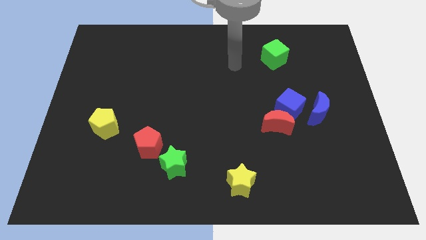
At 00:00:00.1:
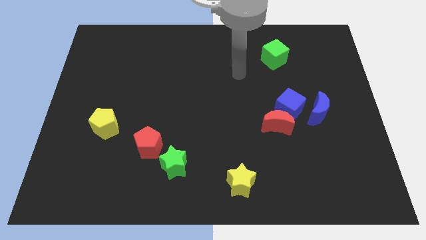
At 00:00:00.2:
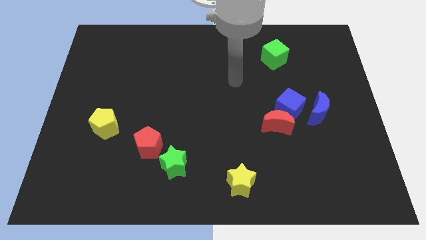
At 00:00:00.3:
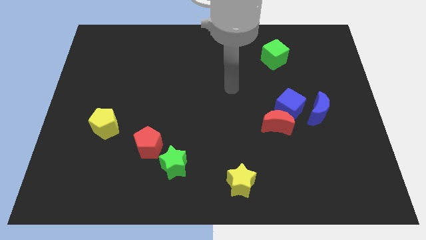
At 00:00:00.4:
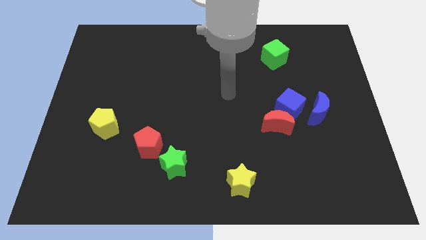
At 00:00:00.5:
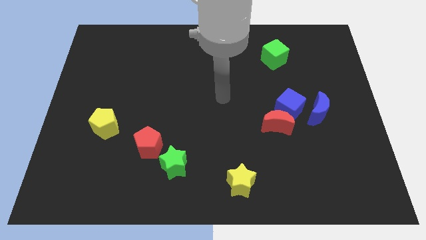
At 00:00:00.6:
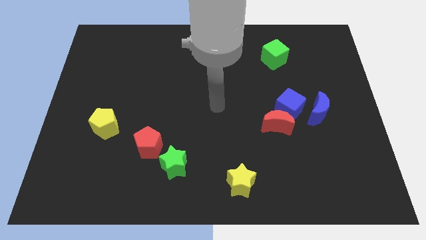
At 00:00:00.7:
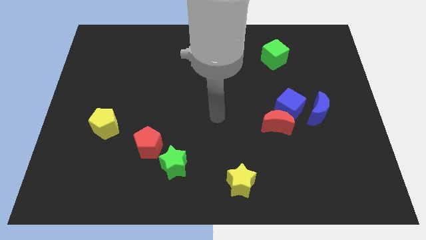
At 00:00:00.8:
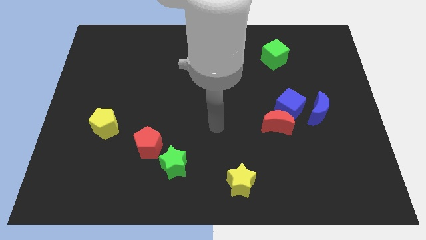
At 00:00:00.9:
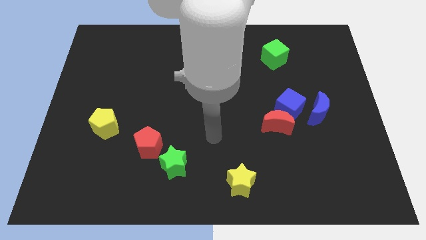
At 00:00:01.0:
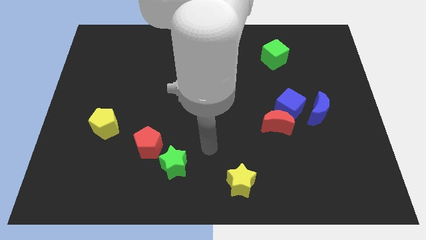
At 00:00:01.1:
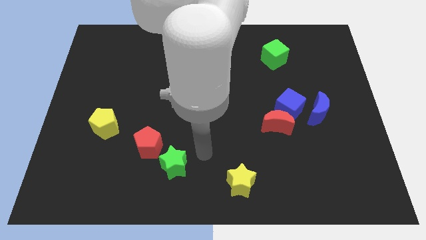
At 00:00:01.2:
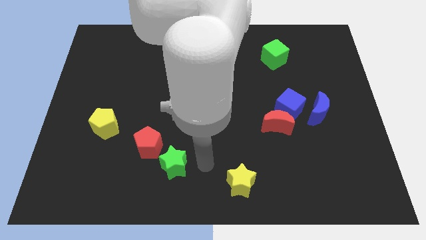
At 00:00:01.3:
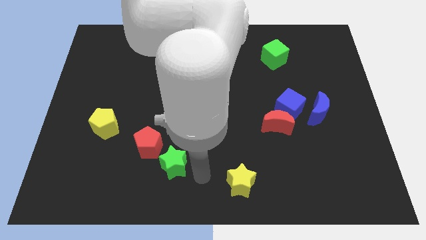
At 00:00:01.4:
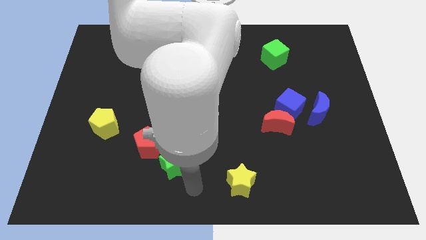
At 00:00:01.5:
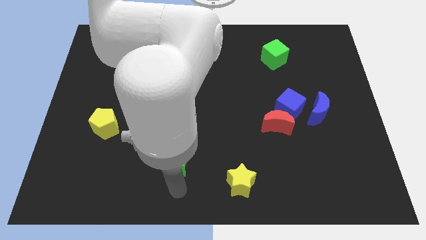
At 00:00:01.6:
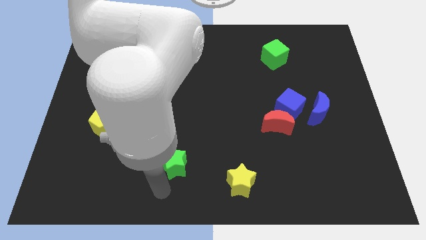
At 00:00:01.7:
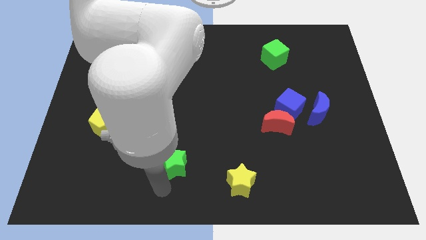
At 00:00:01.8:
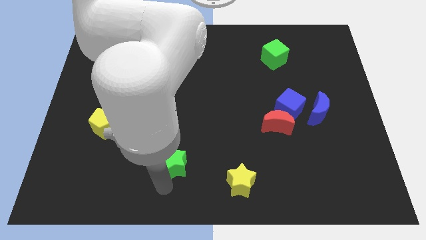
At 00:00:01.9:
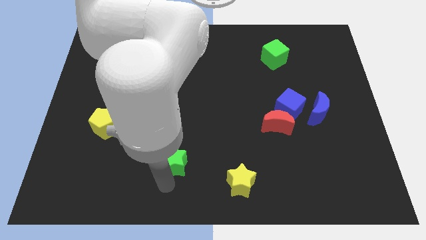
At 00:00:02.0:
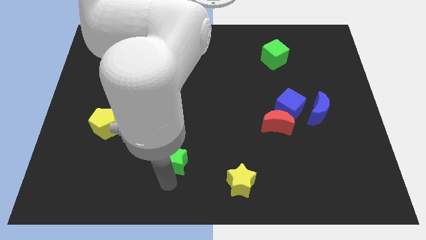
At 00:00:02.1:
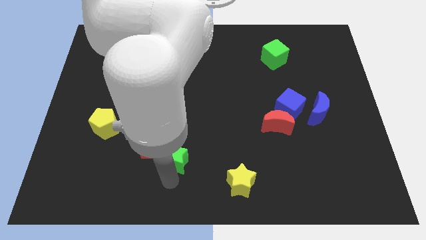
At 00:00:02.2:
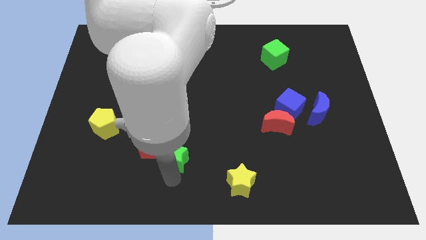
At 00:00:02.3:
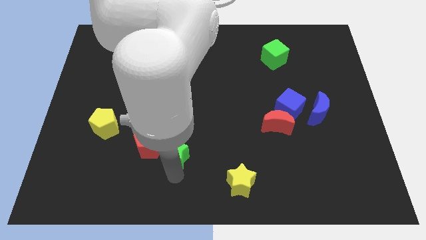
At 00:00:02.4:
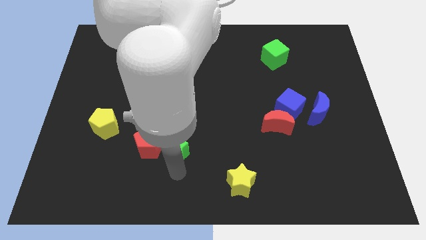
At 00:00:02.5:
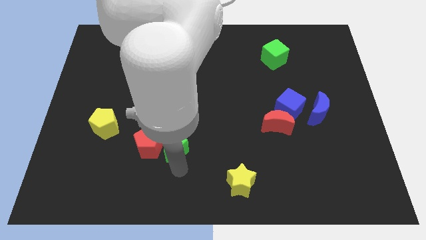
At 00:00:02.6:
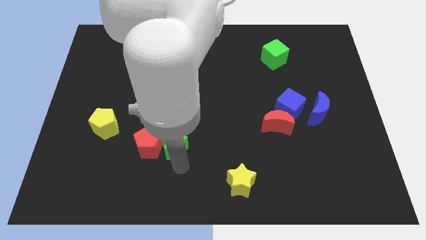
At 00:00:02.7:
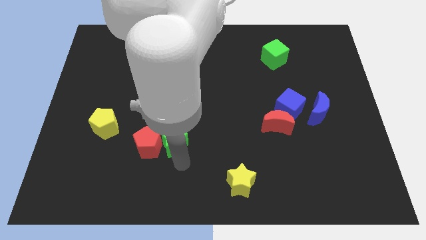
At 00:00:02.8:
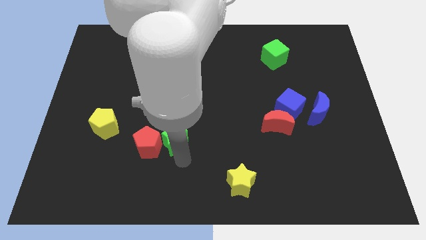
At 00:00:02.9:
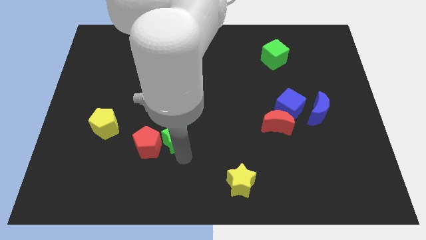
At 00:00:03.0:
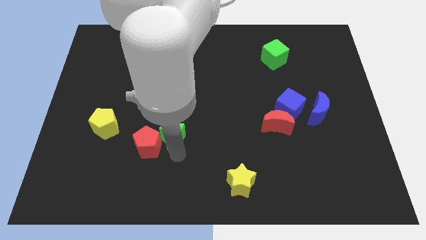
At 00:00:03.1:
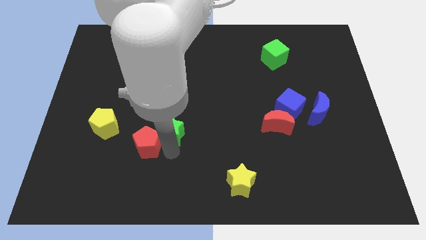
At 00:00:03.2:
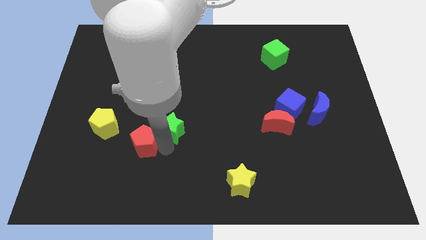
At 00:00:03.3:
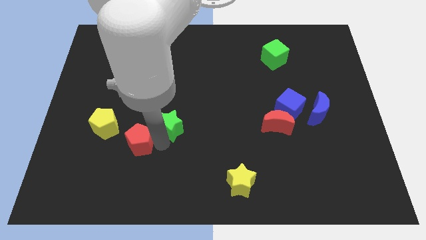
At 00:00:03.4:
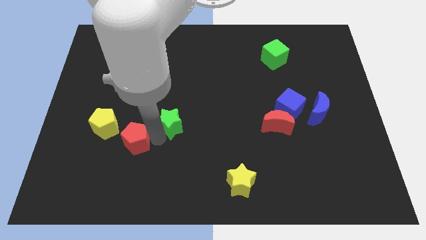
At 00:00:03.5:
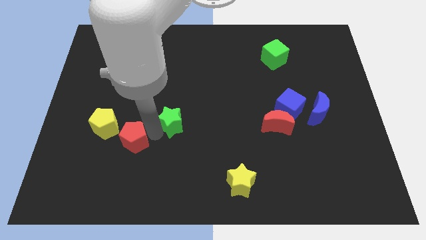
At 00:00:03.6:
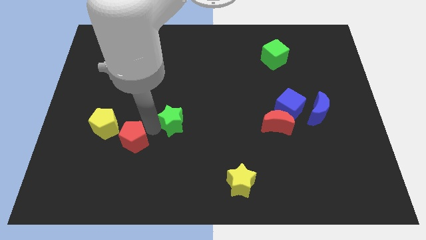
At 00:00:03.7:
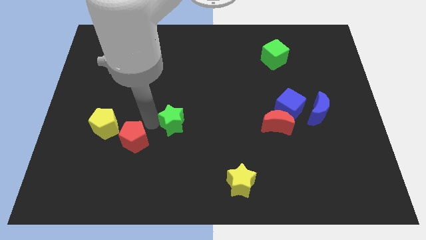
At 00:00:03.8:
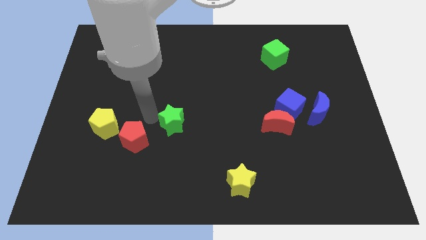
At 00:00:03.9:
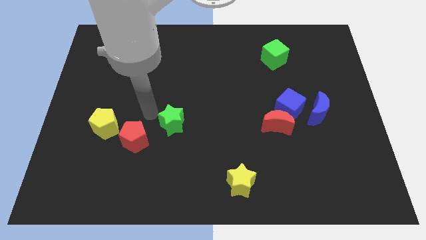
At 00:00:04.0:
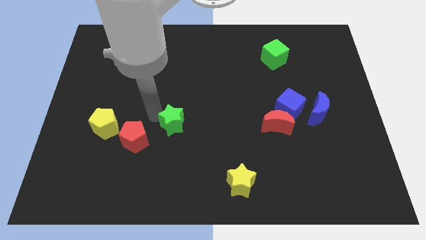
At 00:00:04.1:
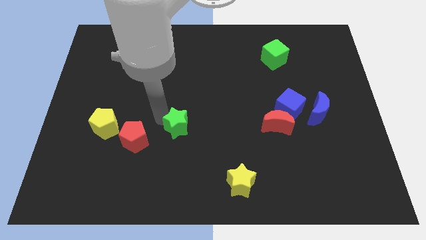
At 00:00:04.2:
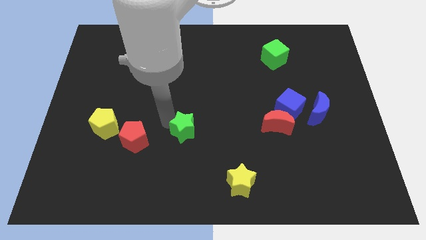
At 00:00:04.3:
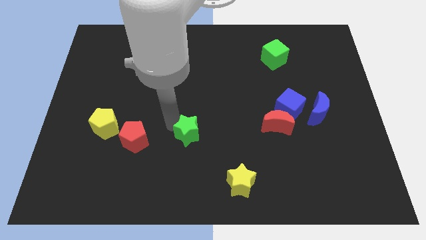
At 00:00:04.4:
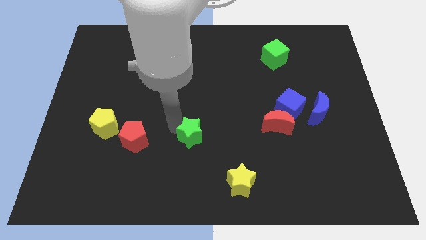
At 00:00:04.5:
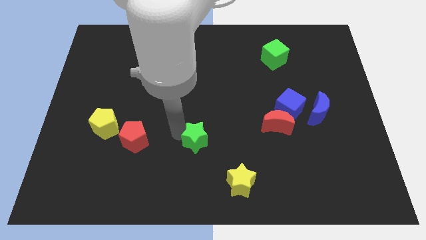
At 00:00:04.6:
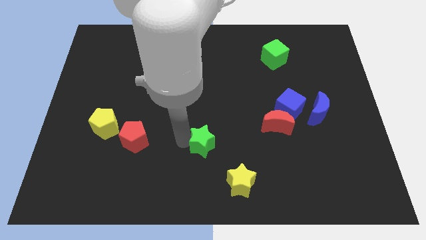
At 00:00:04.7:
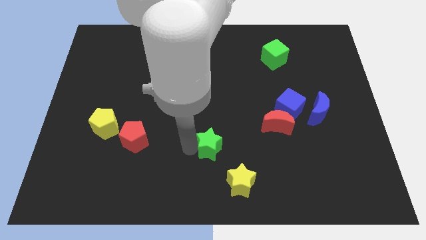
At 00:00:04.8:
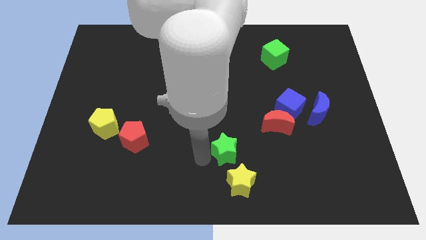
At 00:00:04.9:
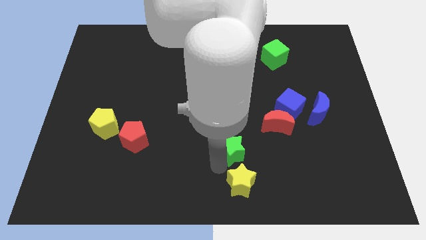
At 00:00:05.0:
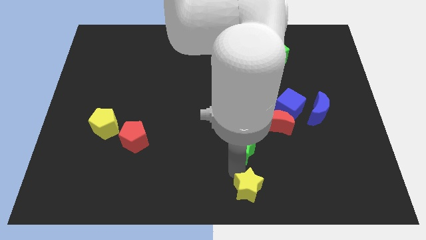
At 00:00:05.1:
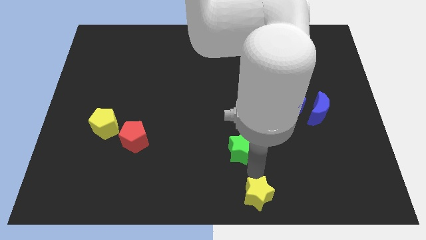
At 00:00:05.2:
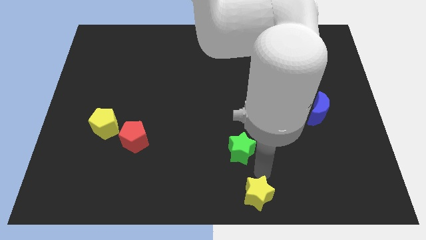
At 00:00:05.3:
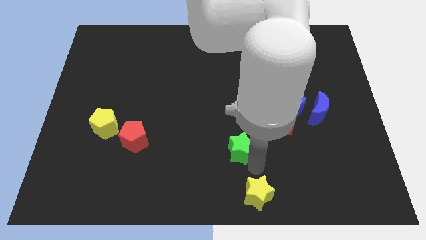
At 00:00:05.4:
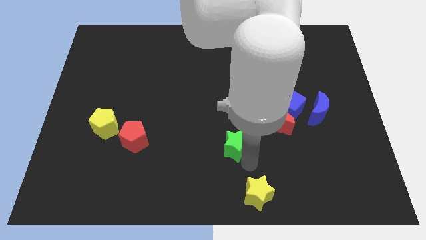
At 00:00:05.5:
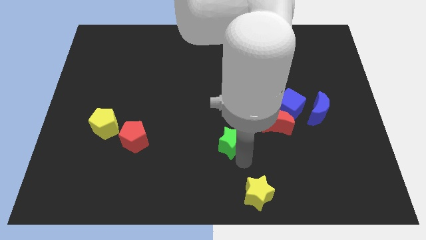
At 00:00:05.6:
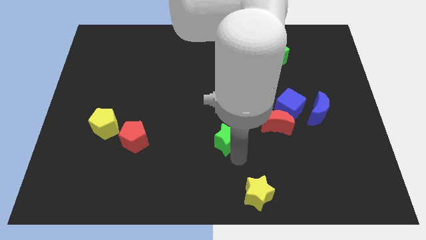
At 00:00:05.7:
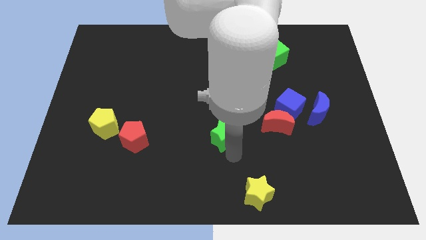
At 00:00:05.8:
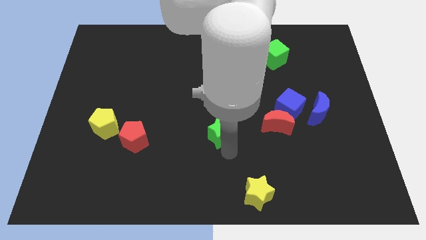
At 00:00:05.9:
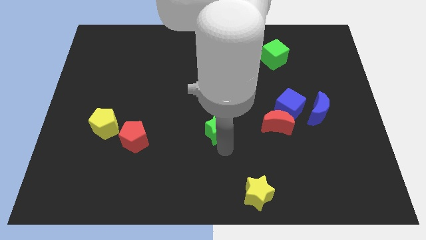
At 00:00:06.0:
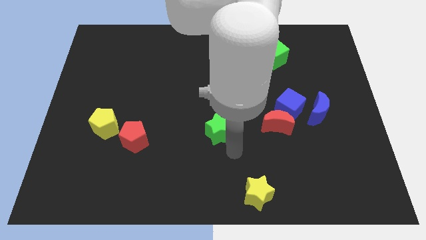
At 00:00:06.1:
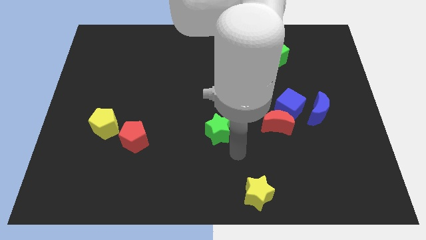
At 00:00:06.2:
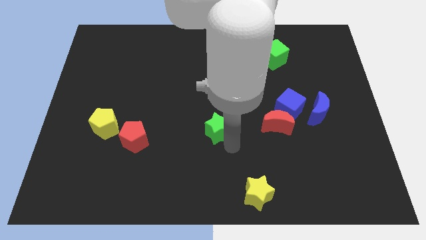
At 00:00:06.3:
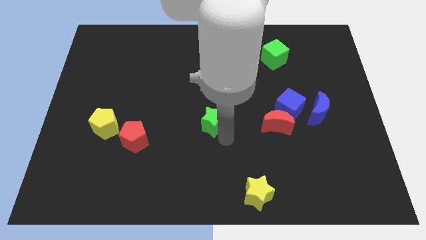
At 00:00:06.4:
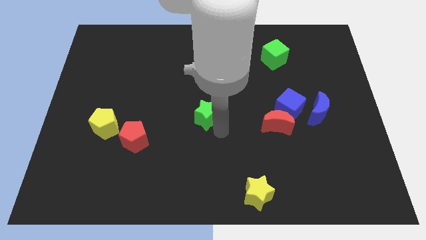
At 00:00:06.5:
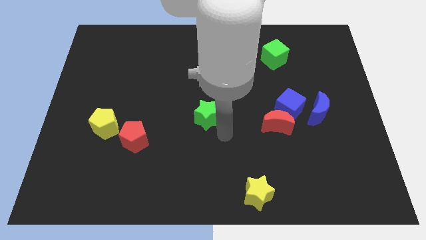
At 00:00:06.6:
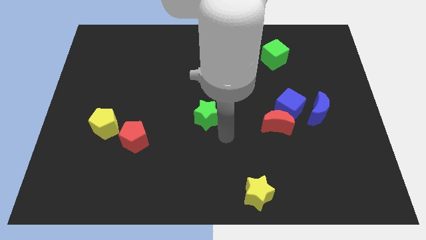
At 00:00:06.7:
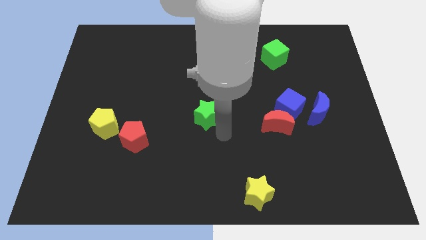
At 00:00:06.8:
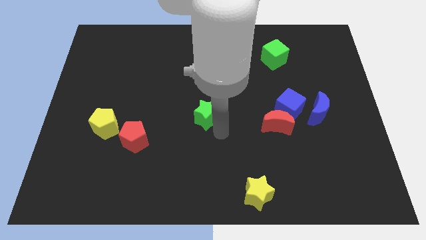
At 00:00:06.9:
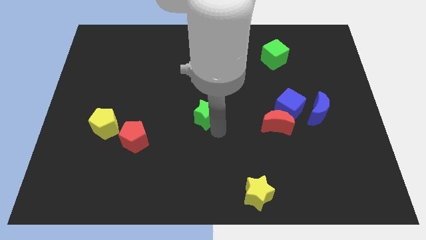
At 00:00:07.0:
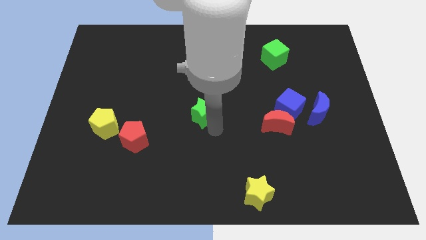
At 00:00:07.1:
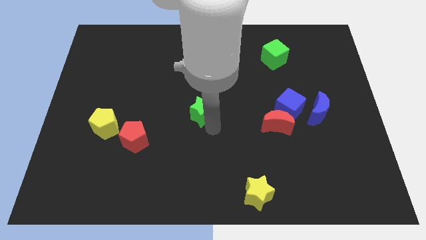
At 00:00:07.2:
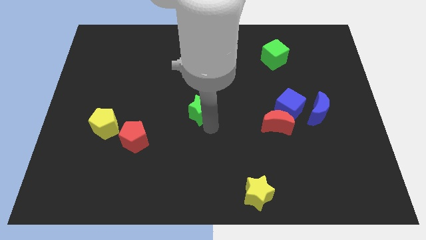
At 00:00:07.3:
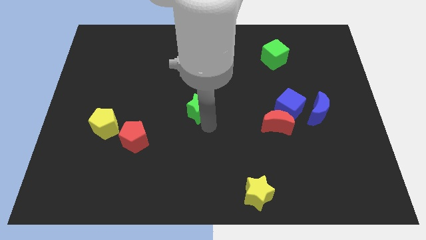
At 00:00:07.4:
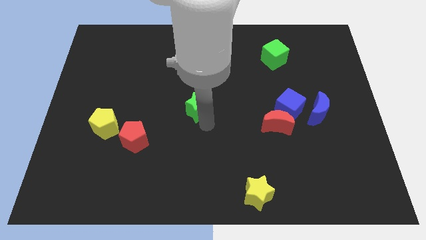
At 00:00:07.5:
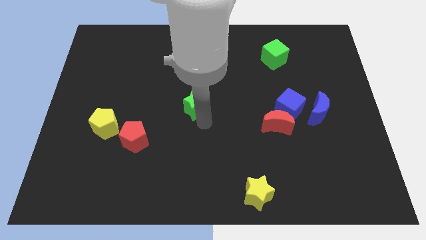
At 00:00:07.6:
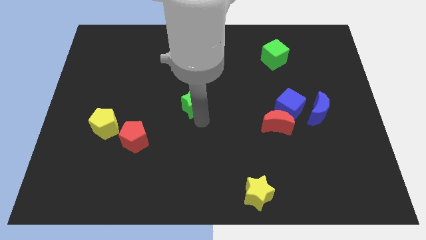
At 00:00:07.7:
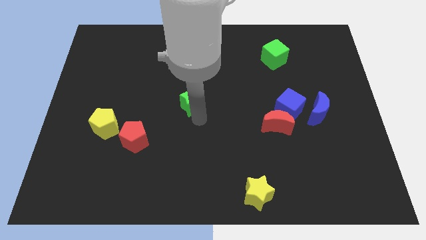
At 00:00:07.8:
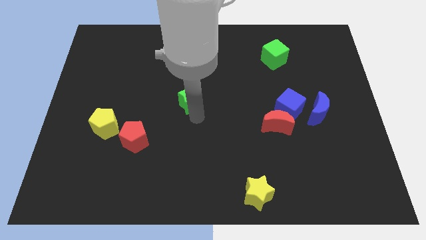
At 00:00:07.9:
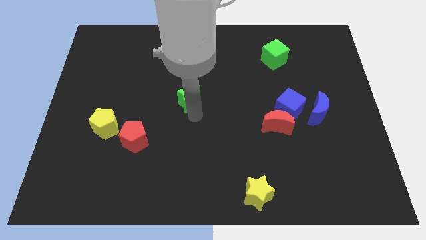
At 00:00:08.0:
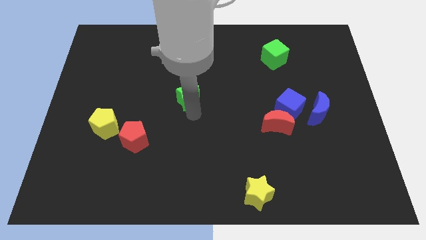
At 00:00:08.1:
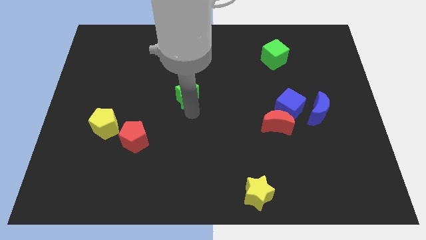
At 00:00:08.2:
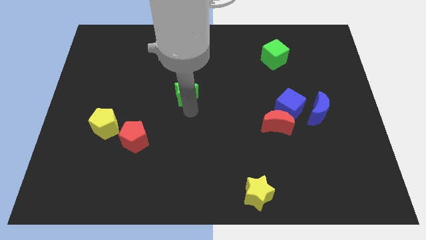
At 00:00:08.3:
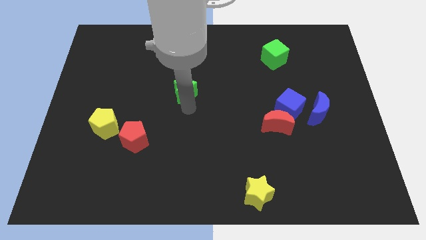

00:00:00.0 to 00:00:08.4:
slide the green star up
